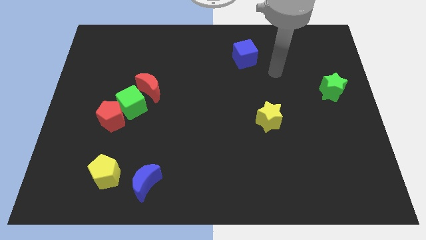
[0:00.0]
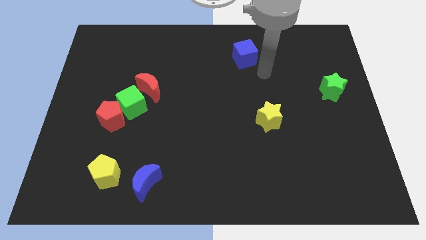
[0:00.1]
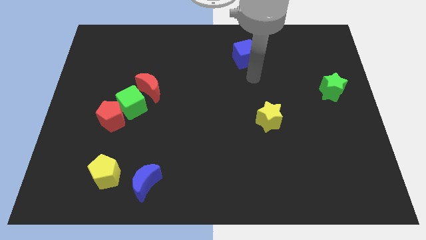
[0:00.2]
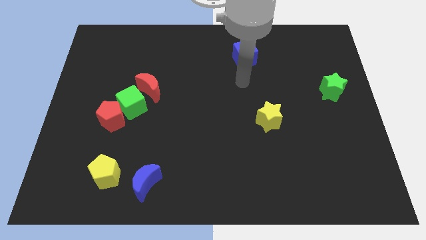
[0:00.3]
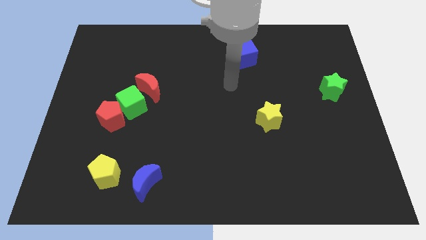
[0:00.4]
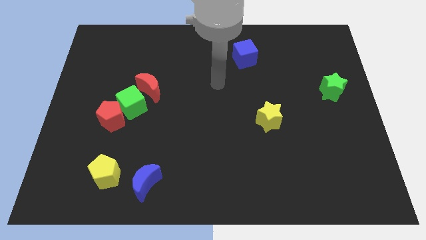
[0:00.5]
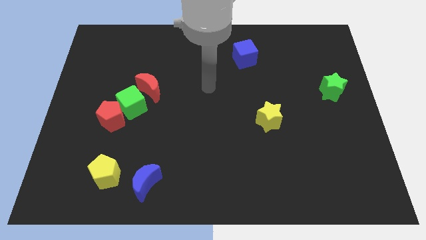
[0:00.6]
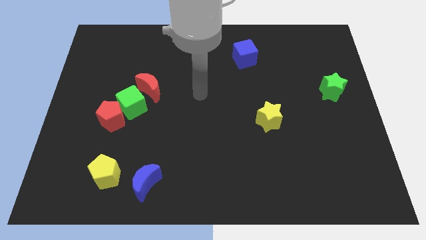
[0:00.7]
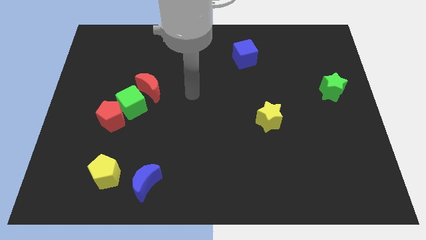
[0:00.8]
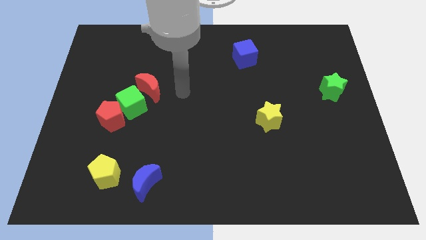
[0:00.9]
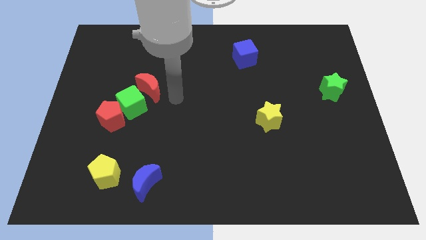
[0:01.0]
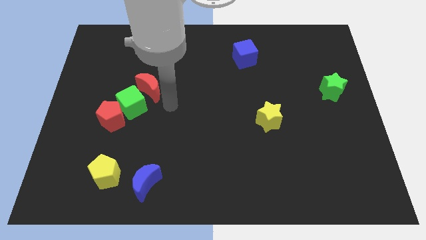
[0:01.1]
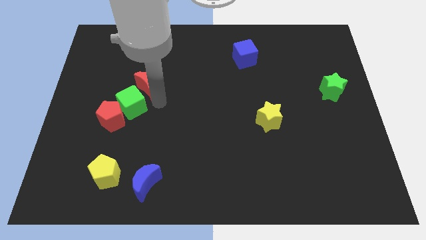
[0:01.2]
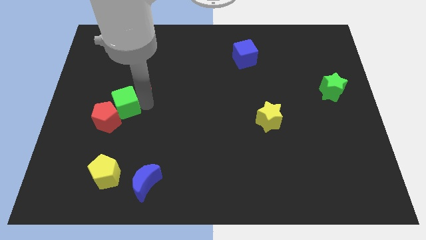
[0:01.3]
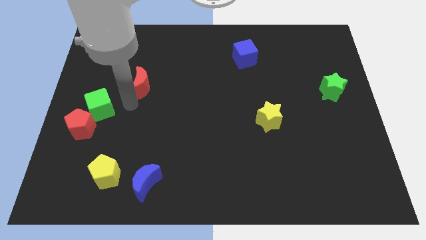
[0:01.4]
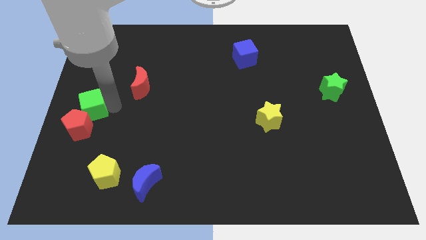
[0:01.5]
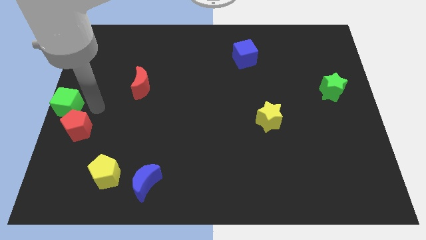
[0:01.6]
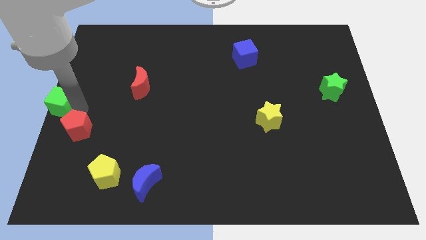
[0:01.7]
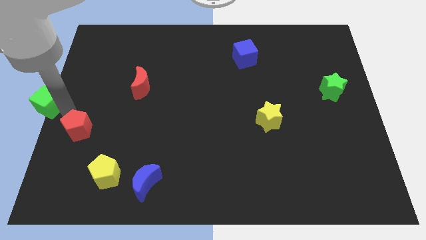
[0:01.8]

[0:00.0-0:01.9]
pull the red pentagon apart from the green cube

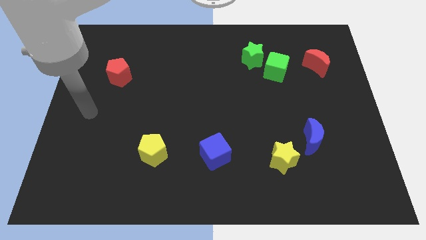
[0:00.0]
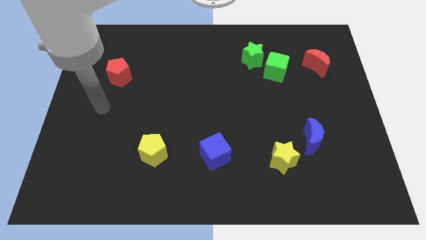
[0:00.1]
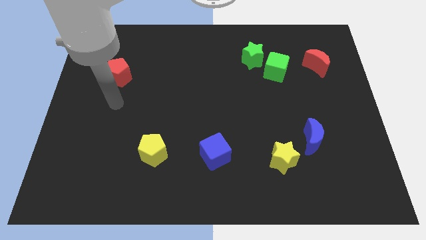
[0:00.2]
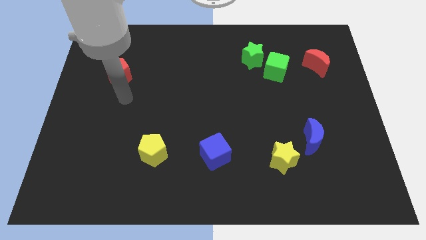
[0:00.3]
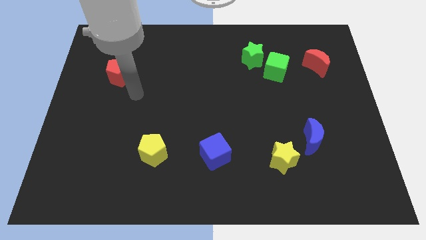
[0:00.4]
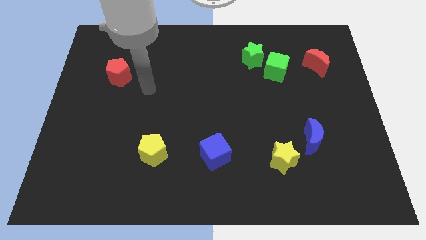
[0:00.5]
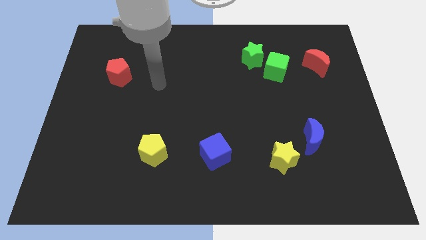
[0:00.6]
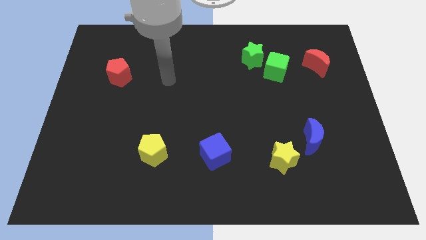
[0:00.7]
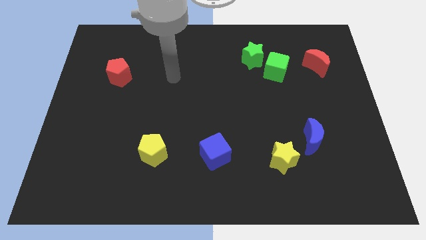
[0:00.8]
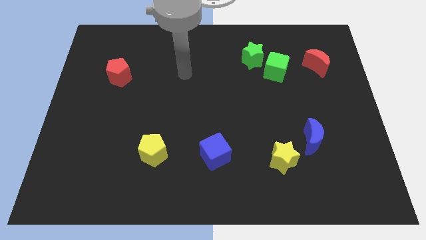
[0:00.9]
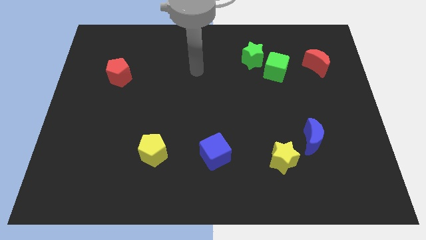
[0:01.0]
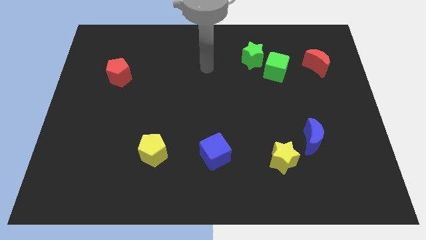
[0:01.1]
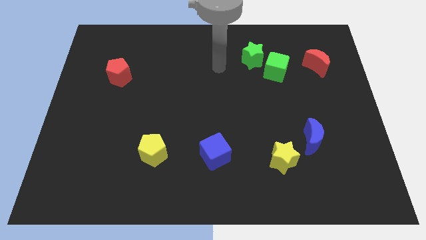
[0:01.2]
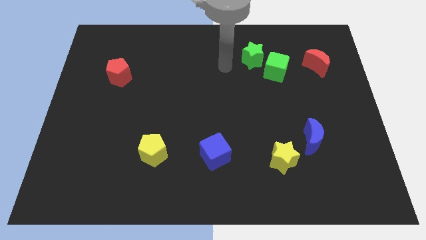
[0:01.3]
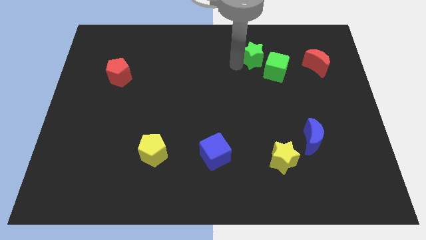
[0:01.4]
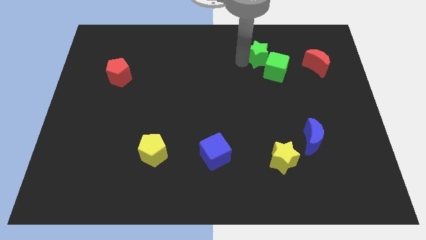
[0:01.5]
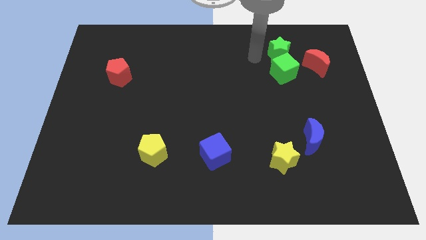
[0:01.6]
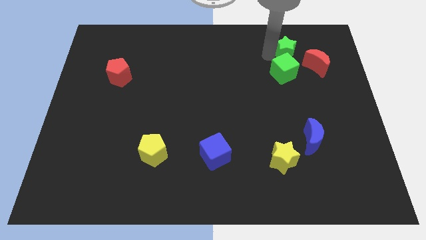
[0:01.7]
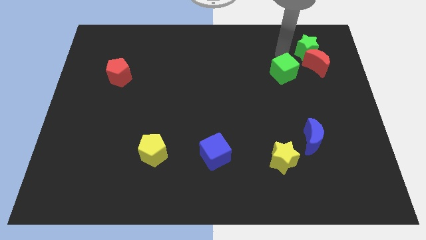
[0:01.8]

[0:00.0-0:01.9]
pull the green cube apart from the green star

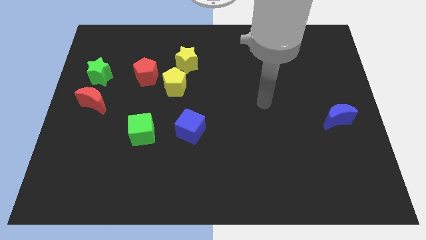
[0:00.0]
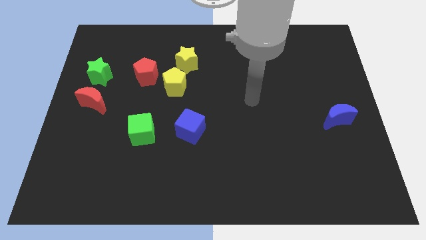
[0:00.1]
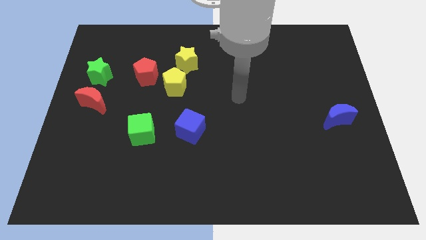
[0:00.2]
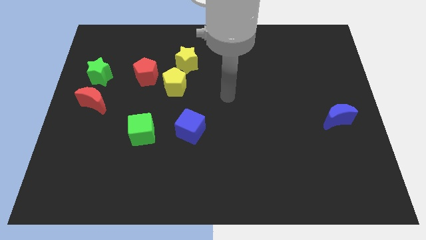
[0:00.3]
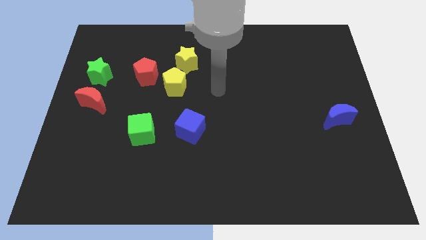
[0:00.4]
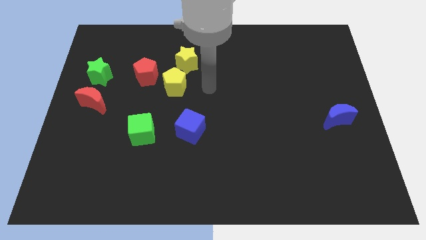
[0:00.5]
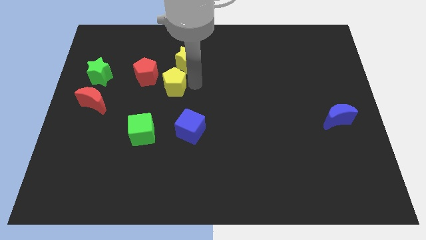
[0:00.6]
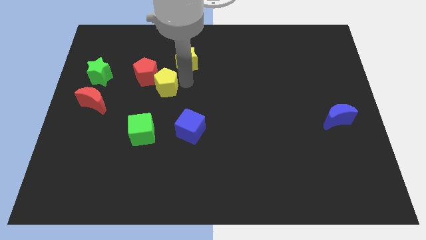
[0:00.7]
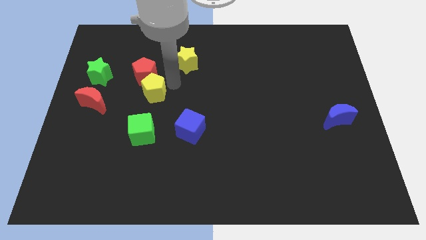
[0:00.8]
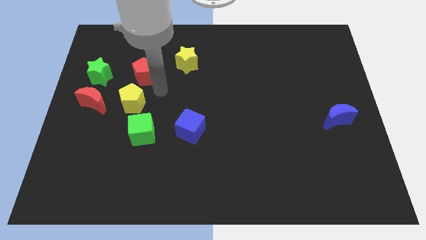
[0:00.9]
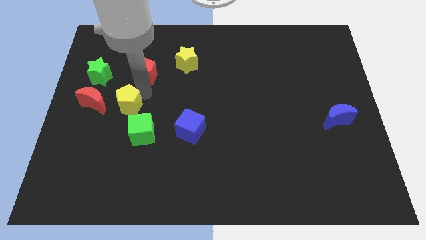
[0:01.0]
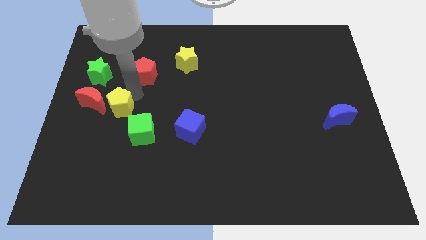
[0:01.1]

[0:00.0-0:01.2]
separate the red pentagon from the yellow pentagon

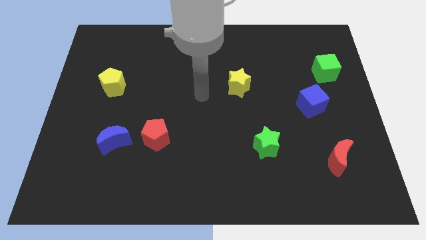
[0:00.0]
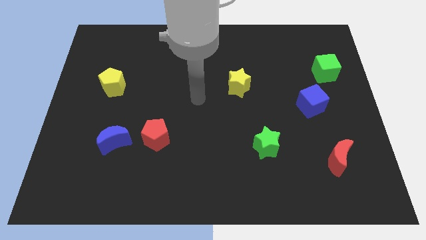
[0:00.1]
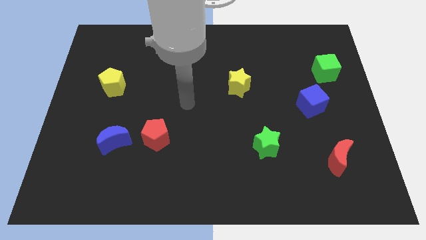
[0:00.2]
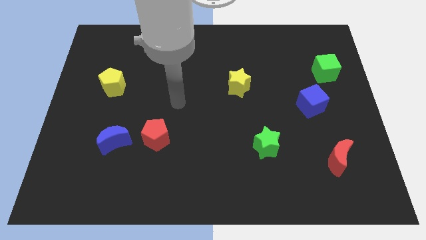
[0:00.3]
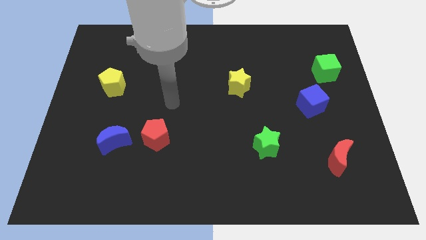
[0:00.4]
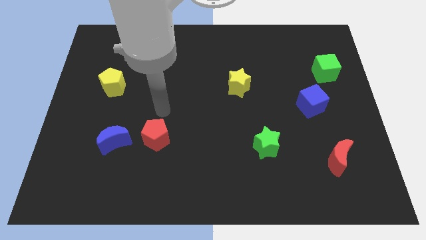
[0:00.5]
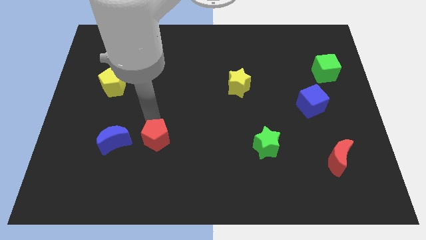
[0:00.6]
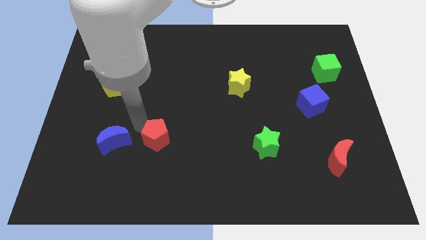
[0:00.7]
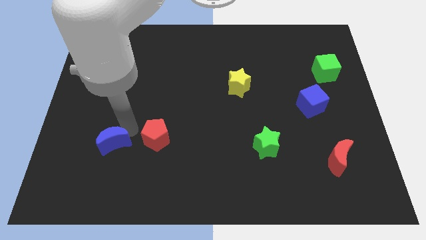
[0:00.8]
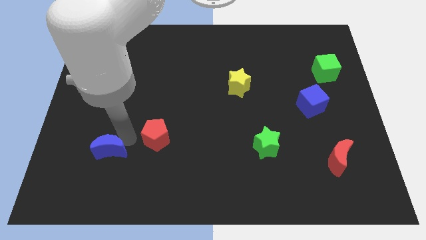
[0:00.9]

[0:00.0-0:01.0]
pull the red pentagon apart from the blue moon

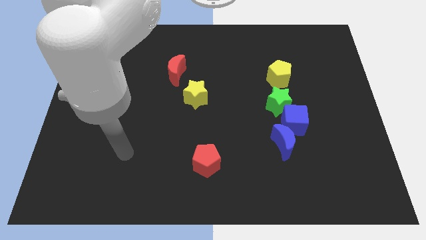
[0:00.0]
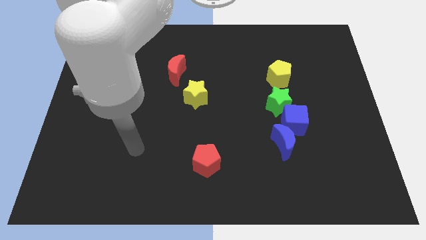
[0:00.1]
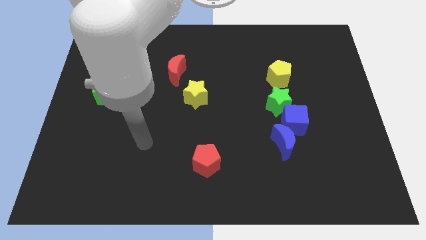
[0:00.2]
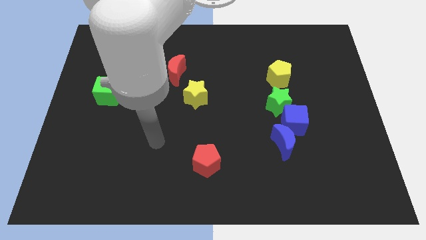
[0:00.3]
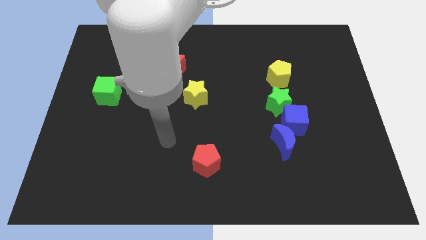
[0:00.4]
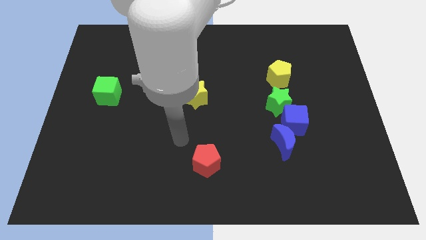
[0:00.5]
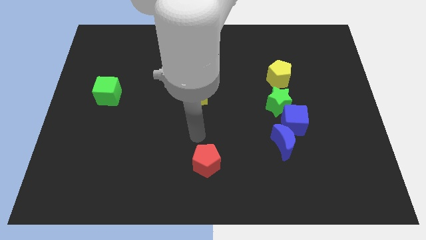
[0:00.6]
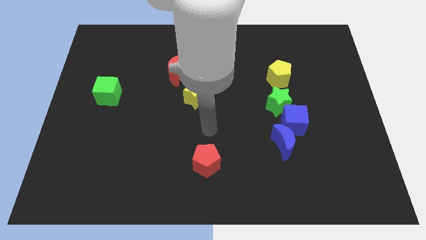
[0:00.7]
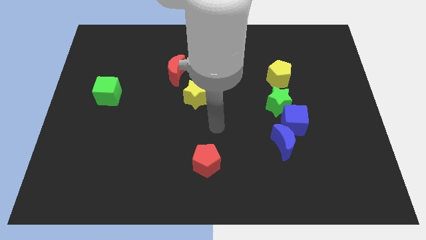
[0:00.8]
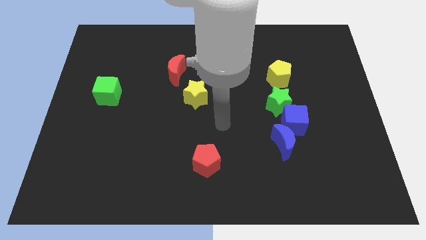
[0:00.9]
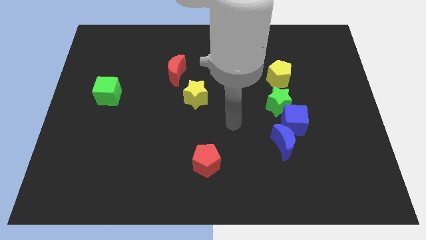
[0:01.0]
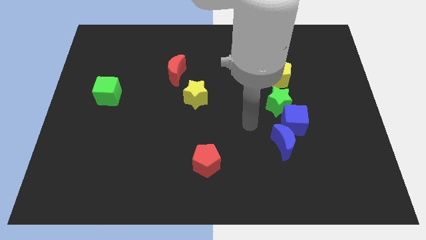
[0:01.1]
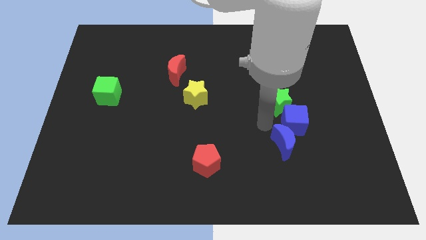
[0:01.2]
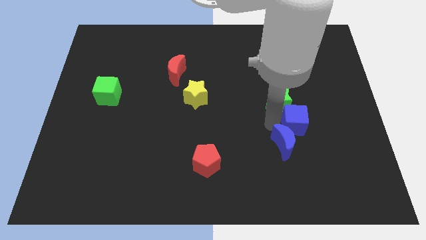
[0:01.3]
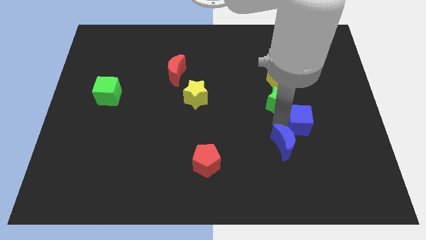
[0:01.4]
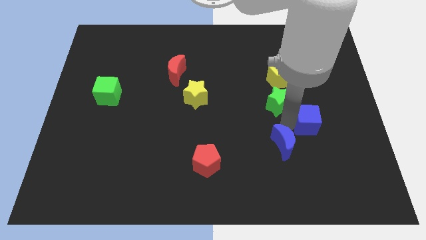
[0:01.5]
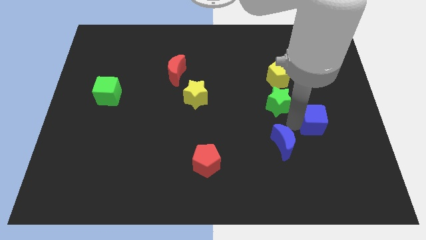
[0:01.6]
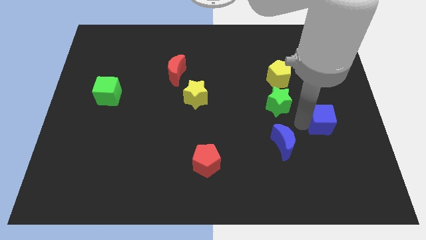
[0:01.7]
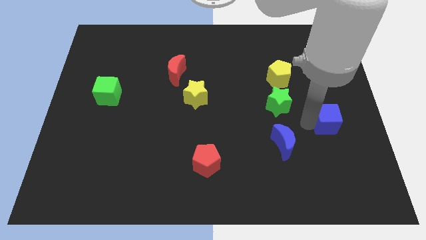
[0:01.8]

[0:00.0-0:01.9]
separate the blue cube from the green star and blue moon

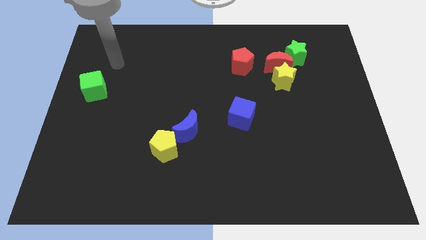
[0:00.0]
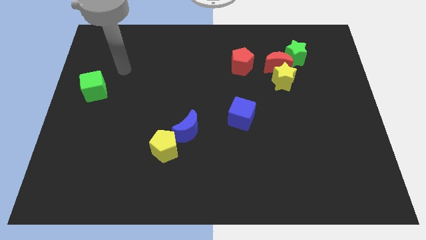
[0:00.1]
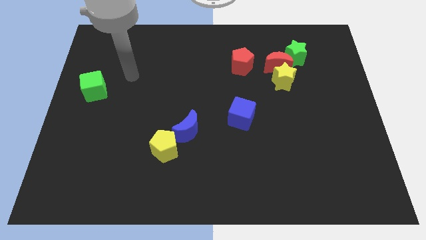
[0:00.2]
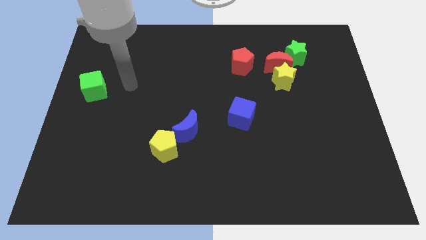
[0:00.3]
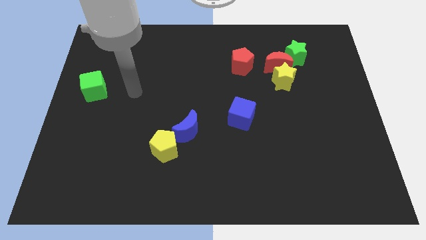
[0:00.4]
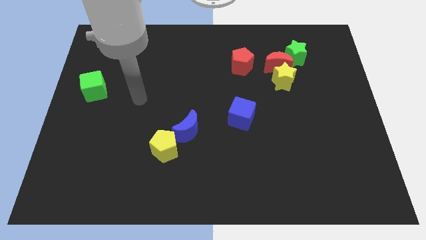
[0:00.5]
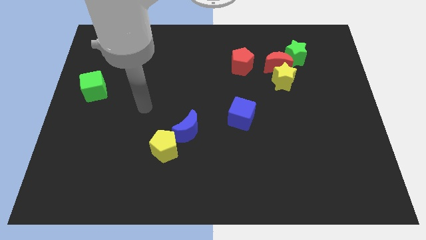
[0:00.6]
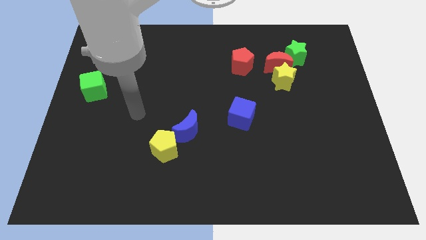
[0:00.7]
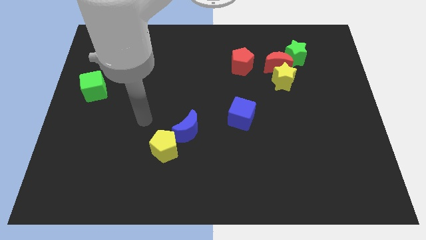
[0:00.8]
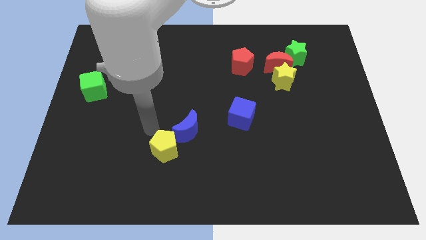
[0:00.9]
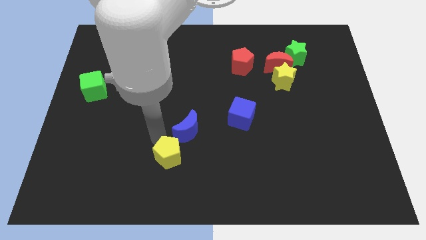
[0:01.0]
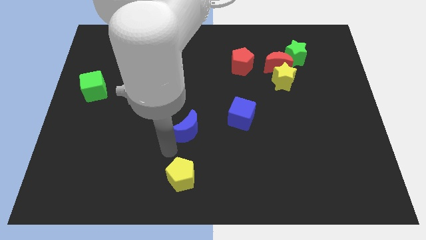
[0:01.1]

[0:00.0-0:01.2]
pull the blue moon apart from the yellow pentagon

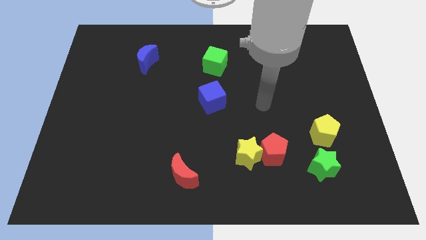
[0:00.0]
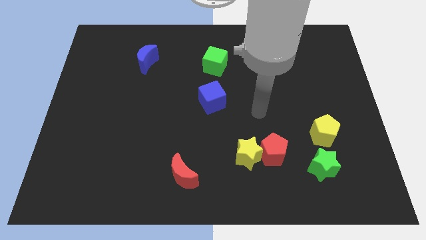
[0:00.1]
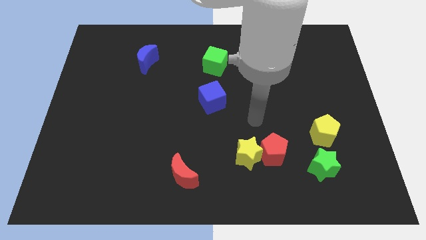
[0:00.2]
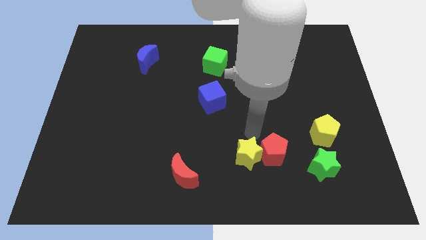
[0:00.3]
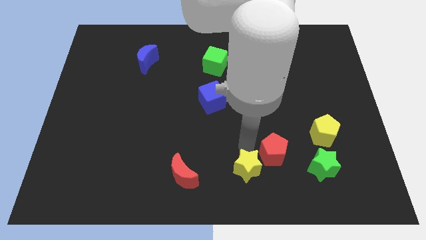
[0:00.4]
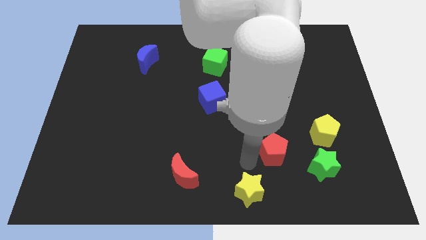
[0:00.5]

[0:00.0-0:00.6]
move the red pentagon away from the yellow star
